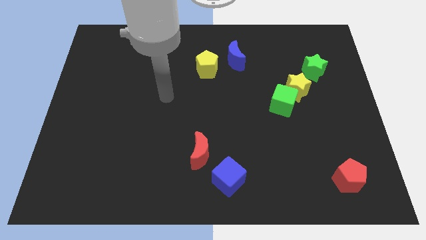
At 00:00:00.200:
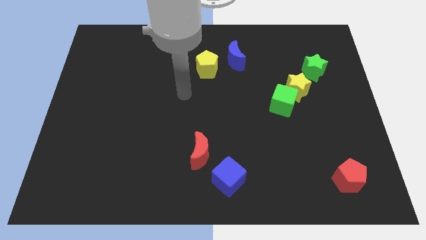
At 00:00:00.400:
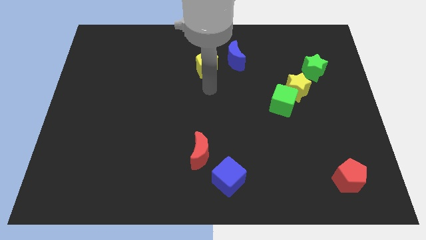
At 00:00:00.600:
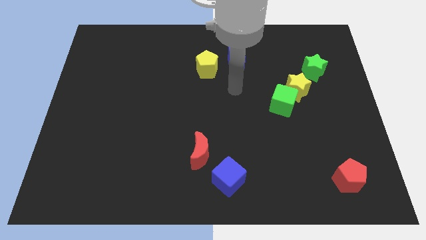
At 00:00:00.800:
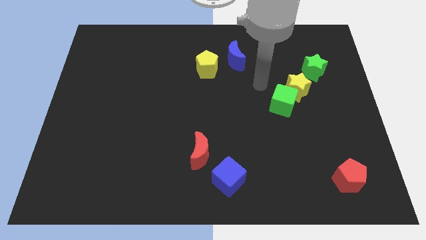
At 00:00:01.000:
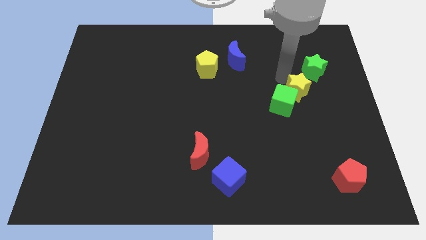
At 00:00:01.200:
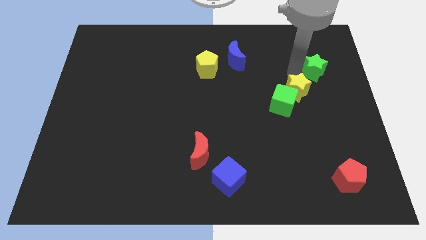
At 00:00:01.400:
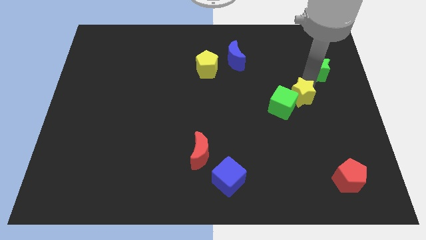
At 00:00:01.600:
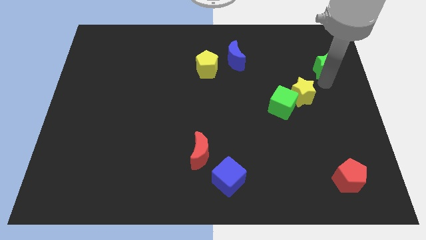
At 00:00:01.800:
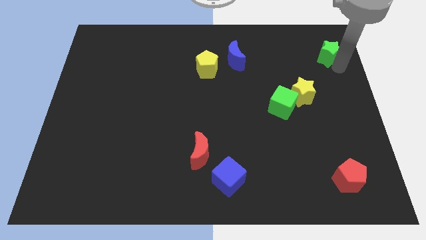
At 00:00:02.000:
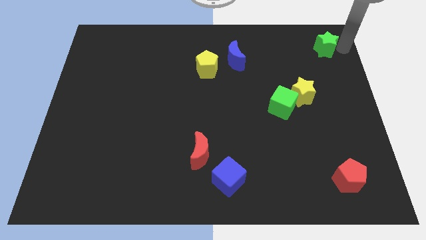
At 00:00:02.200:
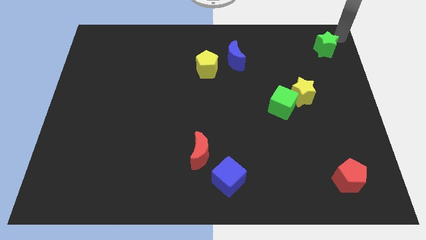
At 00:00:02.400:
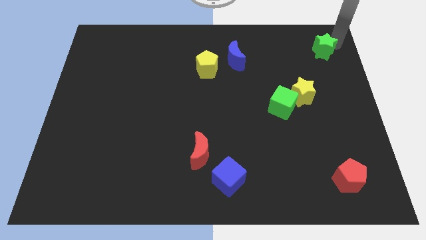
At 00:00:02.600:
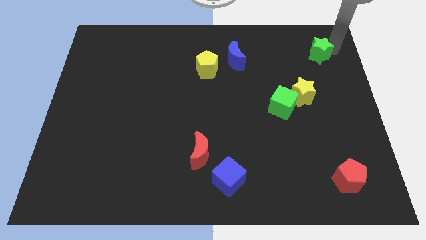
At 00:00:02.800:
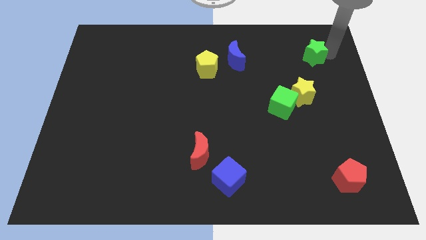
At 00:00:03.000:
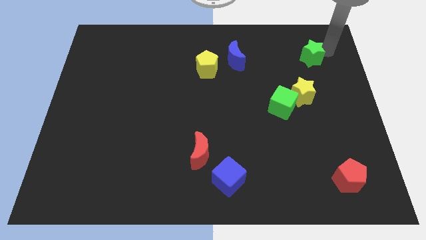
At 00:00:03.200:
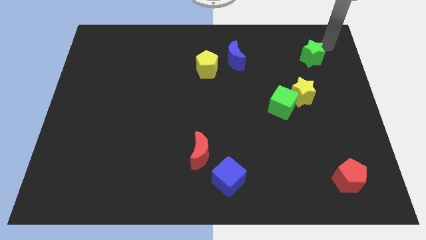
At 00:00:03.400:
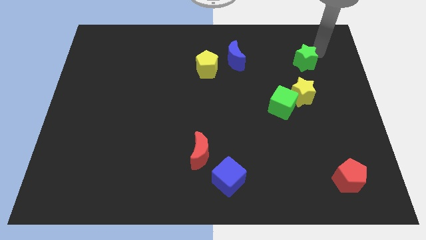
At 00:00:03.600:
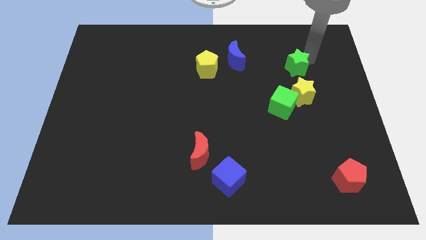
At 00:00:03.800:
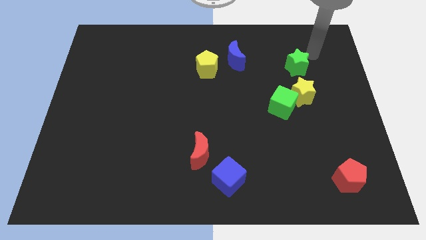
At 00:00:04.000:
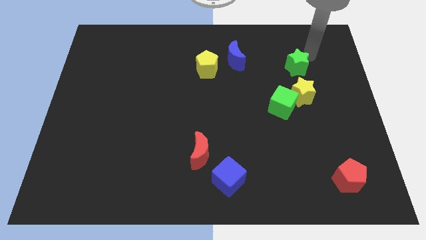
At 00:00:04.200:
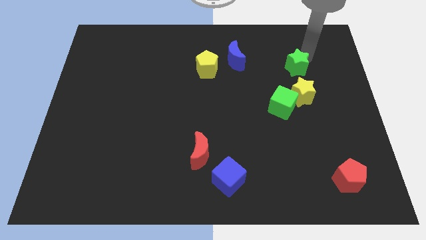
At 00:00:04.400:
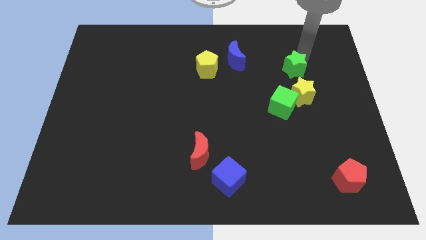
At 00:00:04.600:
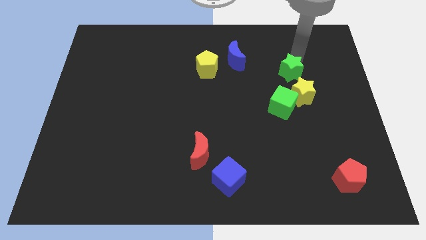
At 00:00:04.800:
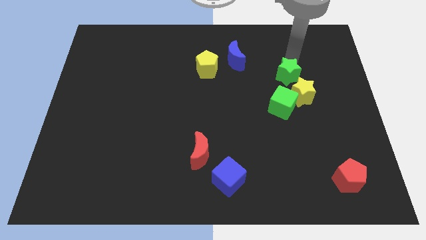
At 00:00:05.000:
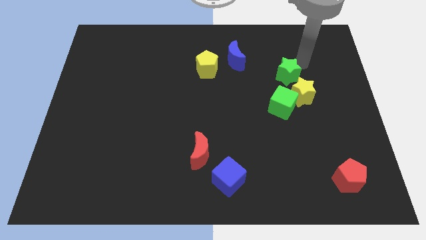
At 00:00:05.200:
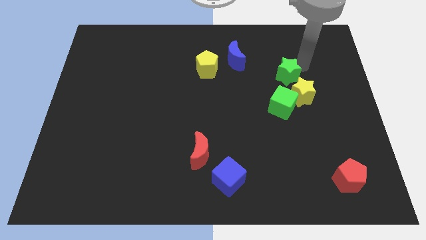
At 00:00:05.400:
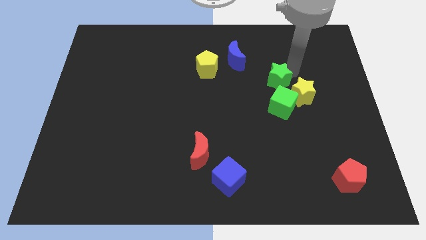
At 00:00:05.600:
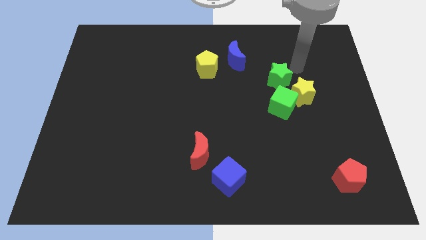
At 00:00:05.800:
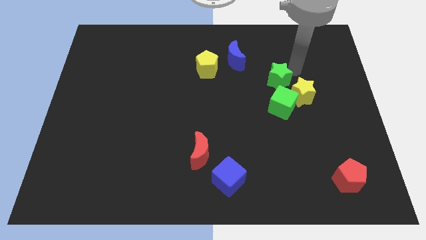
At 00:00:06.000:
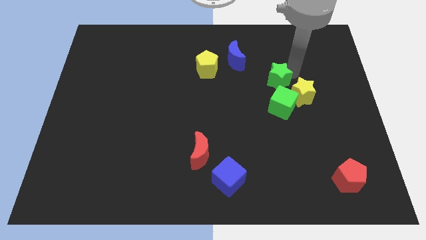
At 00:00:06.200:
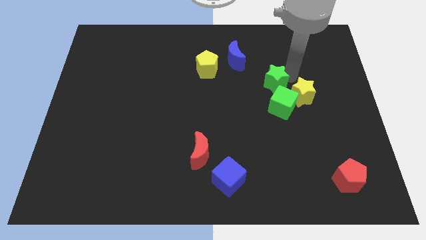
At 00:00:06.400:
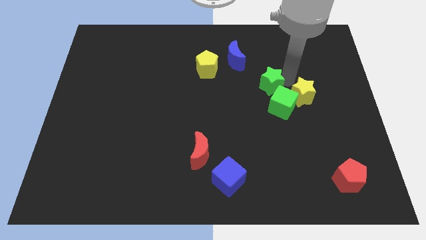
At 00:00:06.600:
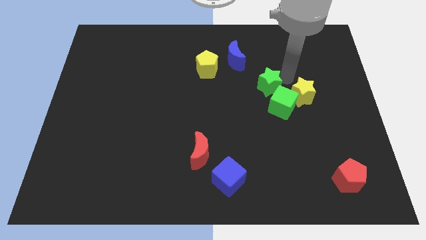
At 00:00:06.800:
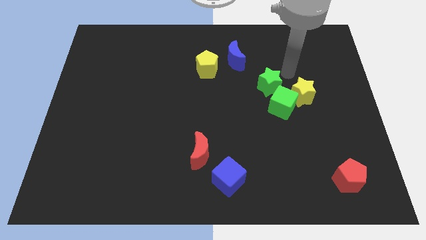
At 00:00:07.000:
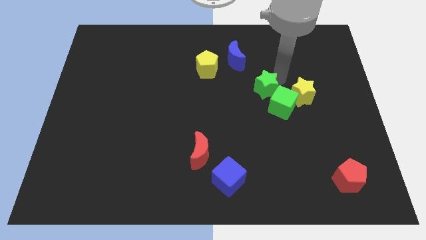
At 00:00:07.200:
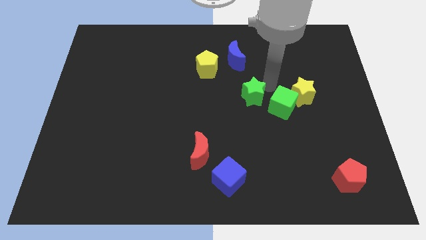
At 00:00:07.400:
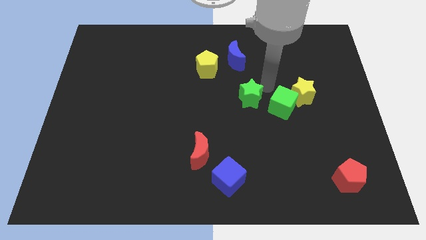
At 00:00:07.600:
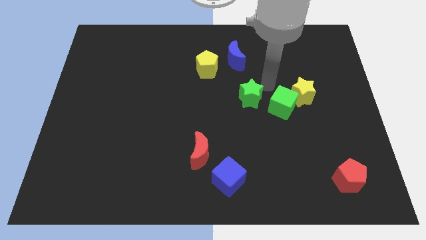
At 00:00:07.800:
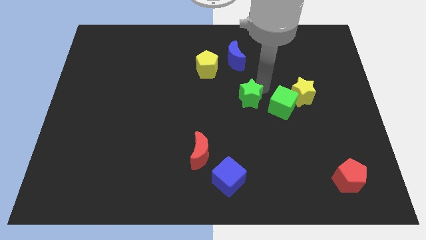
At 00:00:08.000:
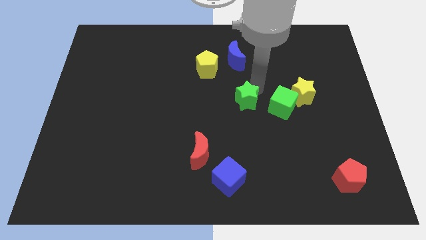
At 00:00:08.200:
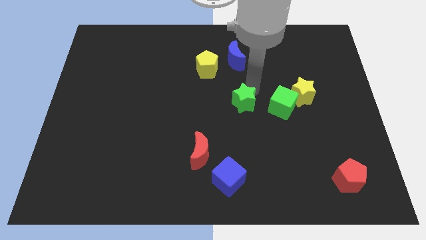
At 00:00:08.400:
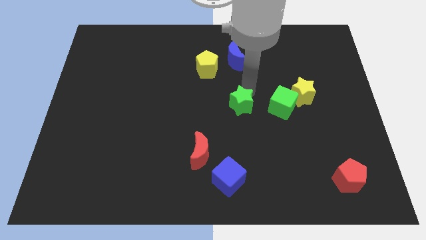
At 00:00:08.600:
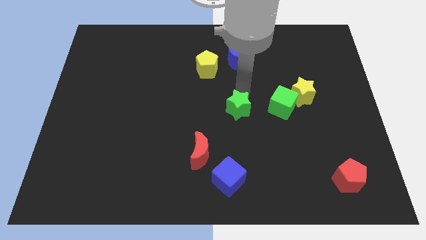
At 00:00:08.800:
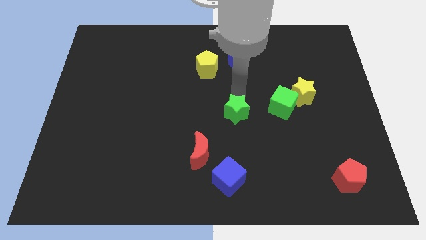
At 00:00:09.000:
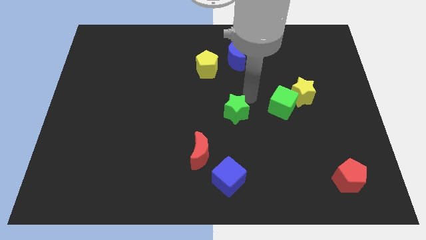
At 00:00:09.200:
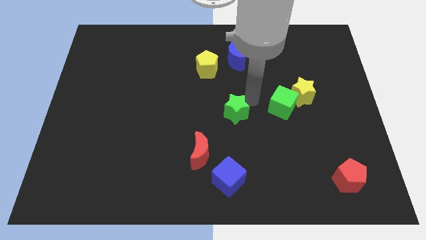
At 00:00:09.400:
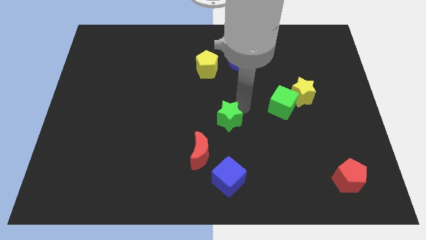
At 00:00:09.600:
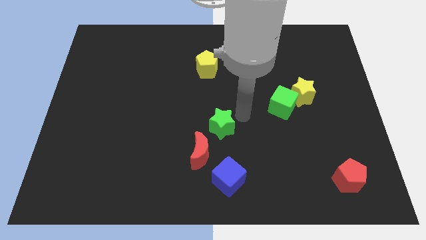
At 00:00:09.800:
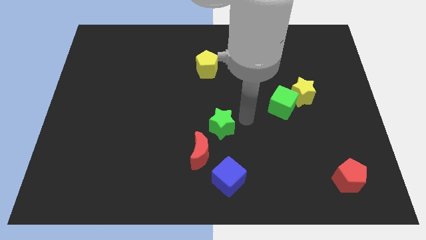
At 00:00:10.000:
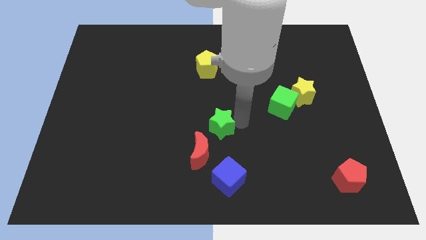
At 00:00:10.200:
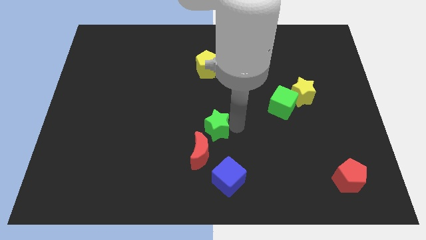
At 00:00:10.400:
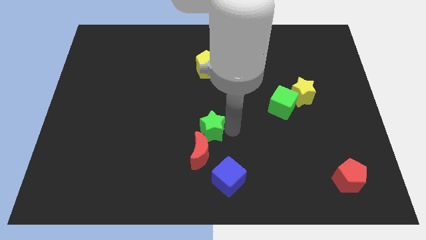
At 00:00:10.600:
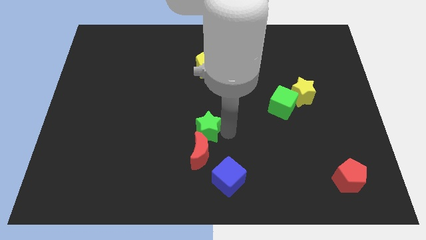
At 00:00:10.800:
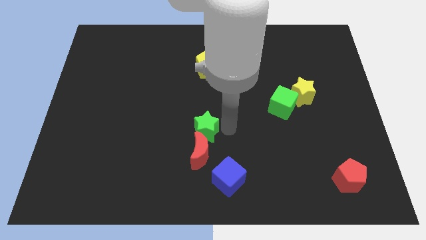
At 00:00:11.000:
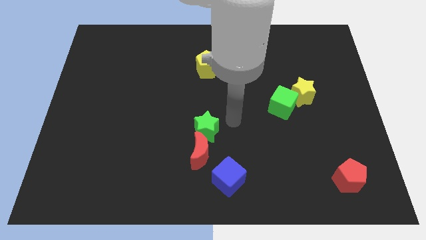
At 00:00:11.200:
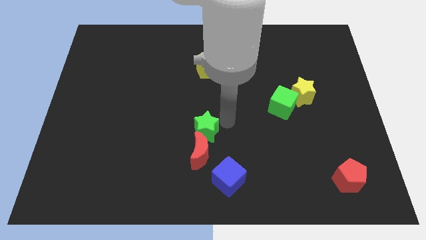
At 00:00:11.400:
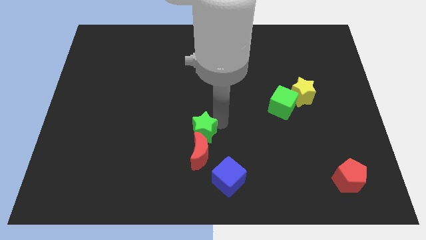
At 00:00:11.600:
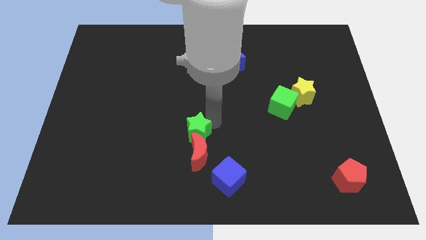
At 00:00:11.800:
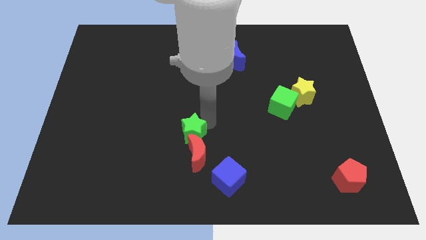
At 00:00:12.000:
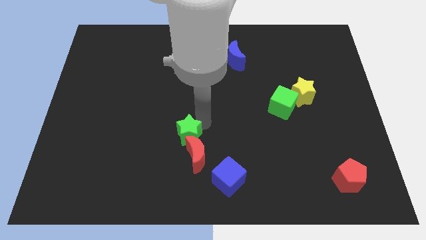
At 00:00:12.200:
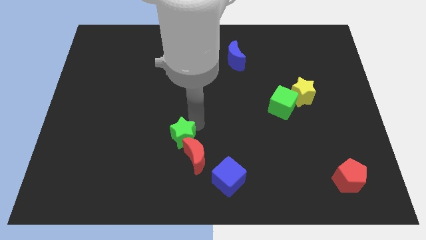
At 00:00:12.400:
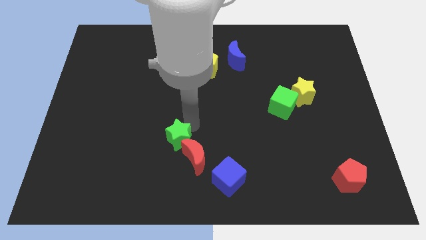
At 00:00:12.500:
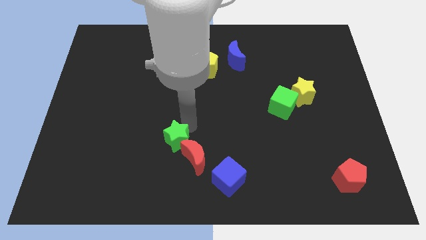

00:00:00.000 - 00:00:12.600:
put the green star to the left side of the red moon

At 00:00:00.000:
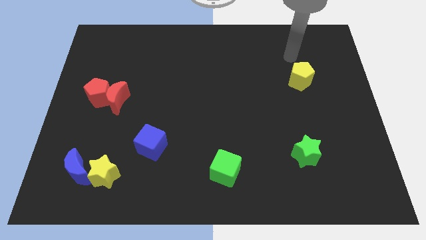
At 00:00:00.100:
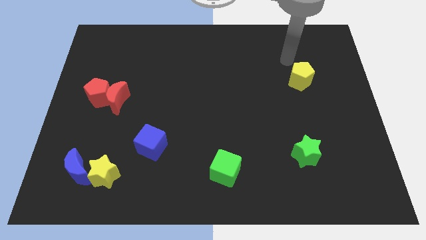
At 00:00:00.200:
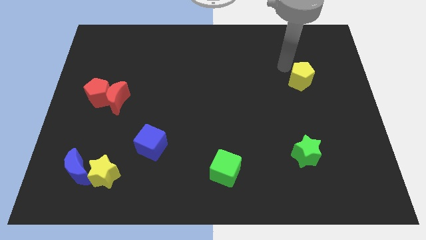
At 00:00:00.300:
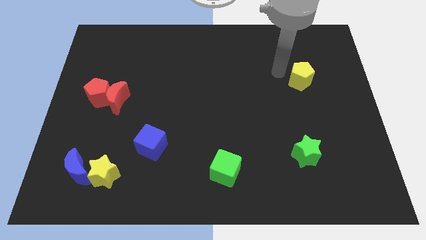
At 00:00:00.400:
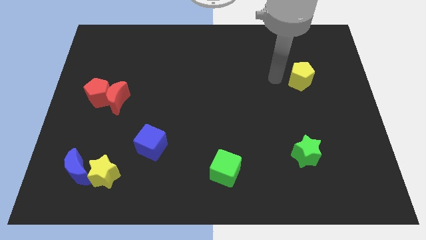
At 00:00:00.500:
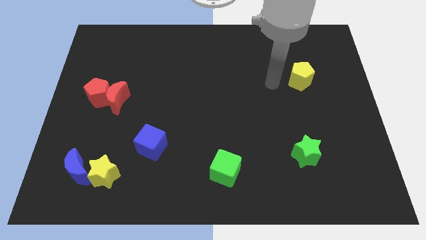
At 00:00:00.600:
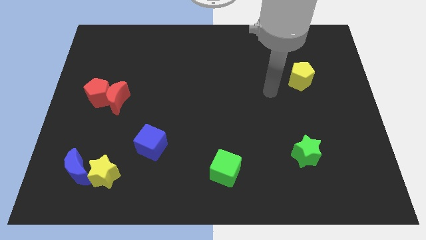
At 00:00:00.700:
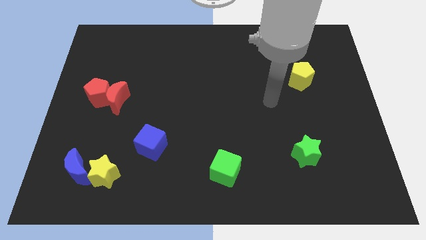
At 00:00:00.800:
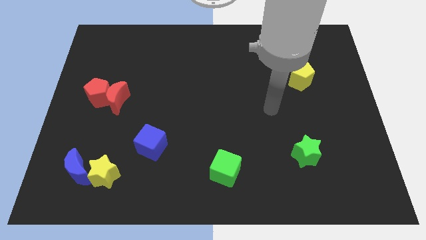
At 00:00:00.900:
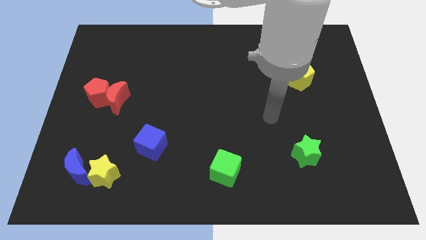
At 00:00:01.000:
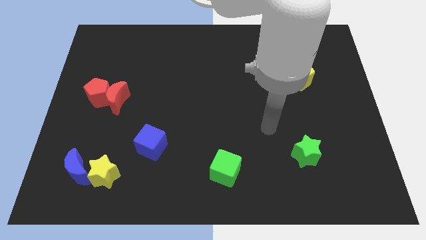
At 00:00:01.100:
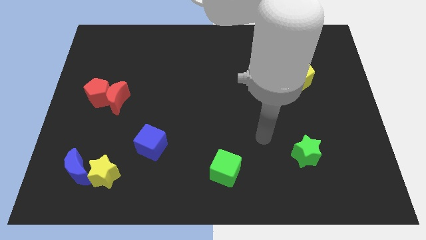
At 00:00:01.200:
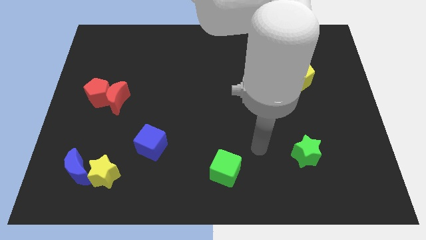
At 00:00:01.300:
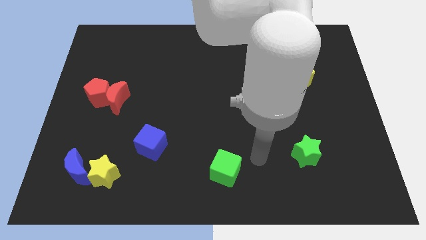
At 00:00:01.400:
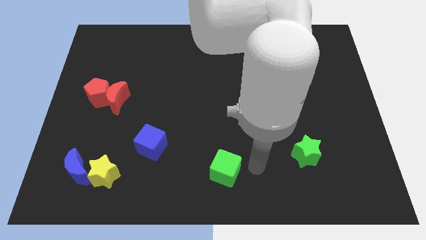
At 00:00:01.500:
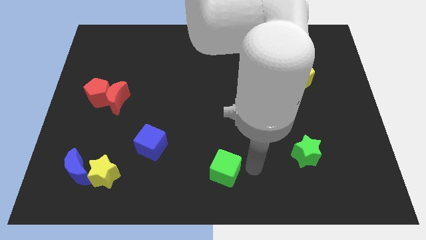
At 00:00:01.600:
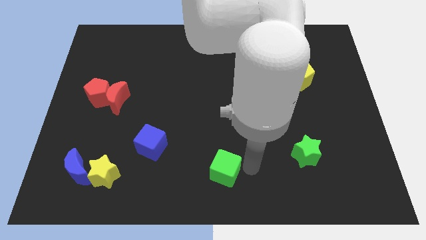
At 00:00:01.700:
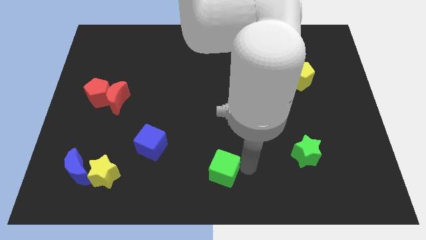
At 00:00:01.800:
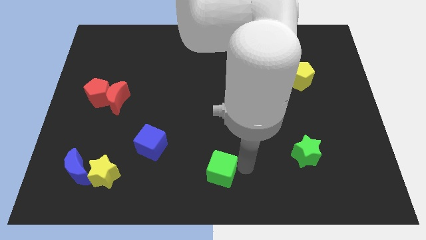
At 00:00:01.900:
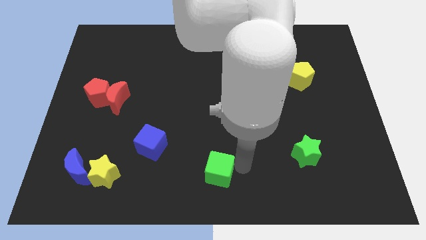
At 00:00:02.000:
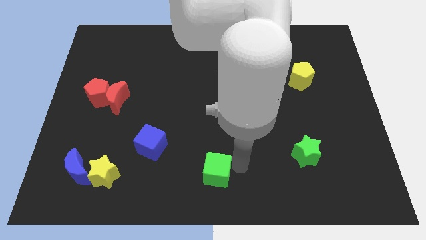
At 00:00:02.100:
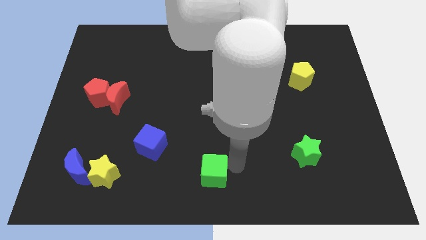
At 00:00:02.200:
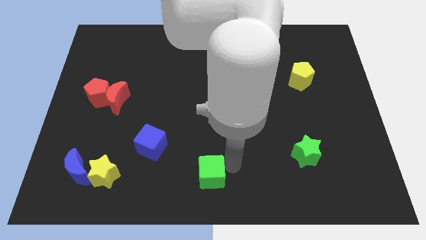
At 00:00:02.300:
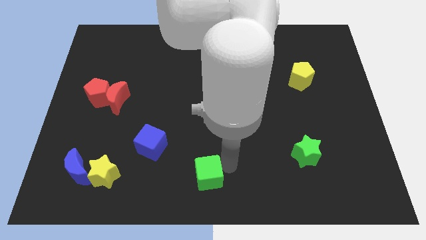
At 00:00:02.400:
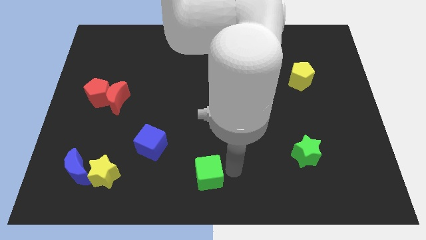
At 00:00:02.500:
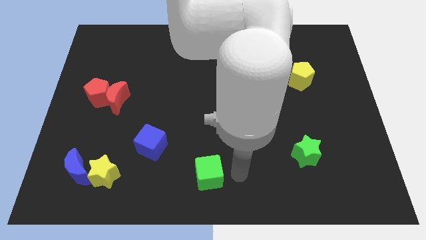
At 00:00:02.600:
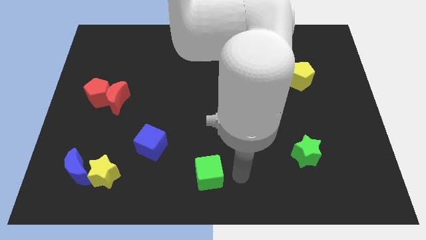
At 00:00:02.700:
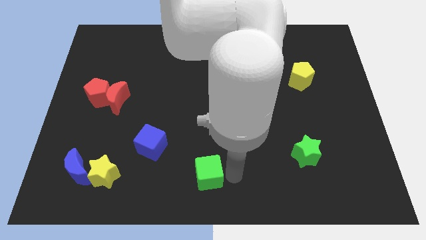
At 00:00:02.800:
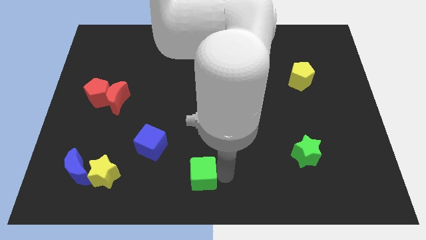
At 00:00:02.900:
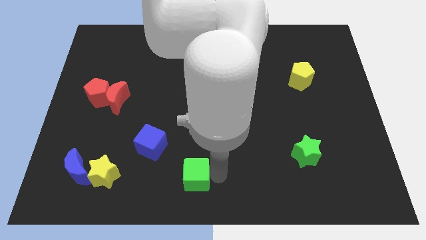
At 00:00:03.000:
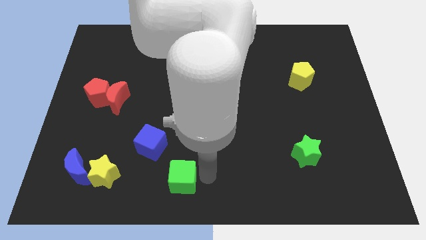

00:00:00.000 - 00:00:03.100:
put the green cube to the right side of the yellow star
